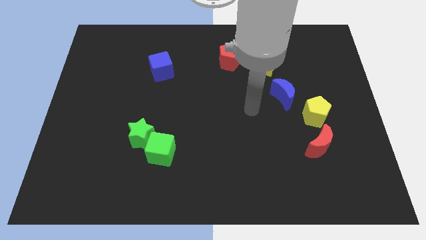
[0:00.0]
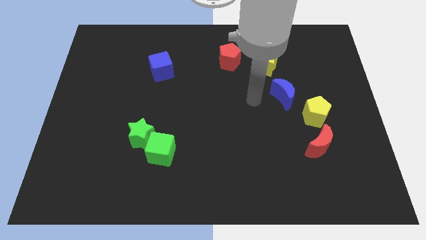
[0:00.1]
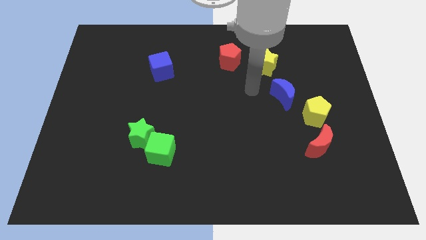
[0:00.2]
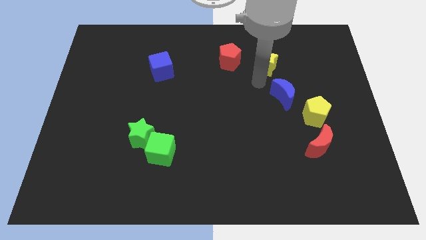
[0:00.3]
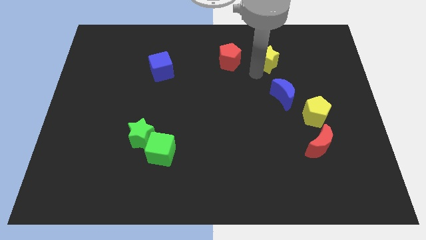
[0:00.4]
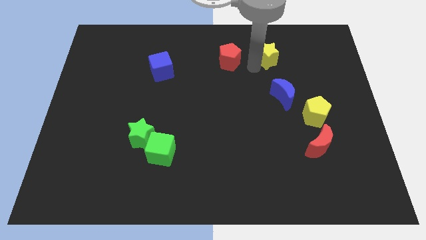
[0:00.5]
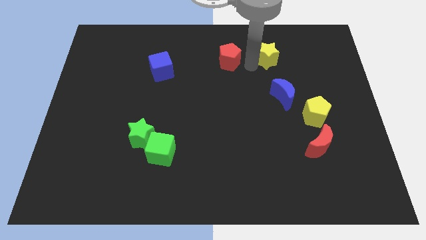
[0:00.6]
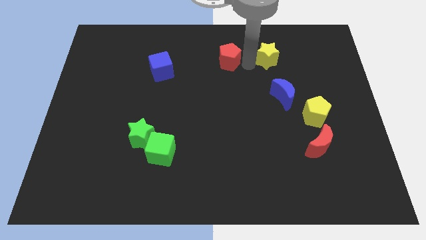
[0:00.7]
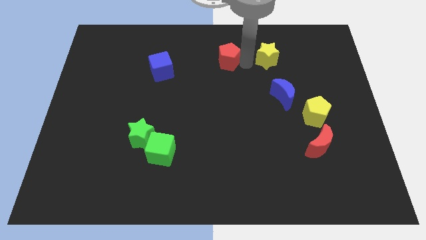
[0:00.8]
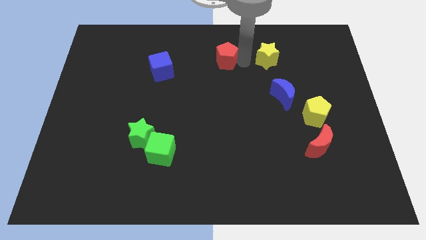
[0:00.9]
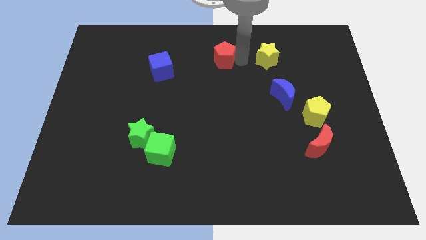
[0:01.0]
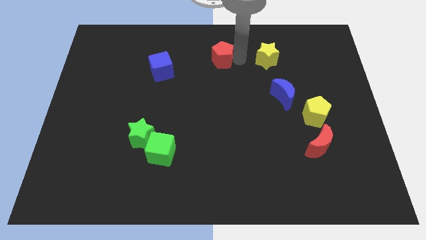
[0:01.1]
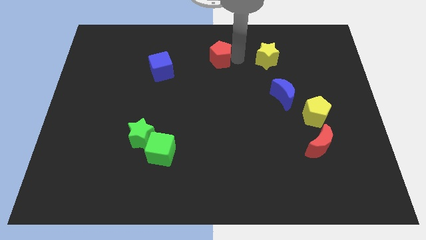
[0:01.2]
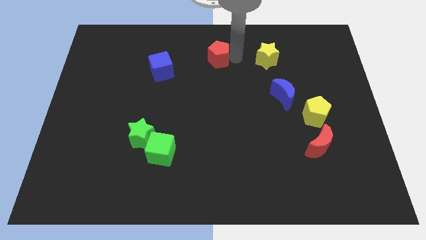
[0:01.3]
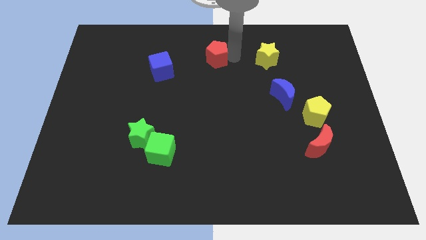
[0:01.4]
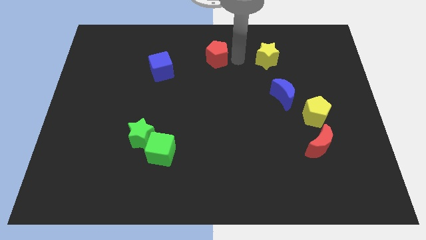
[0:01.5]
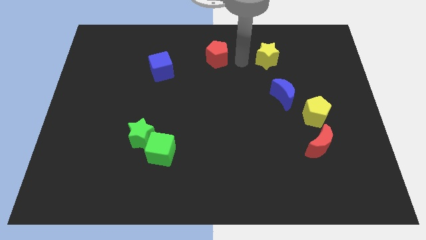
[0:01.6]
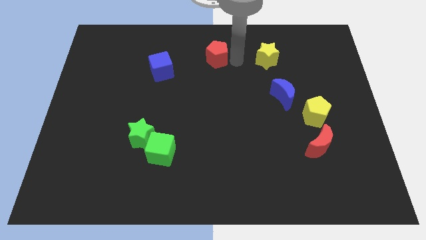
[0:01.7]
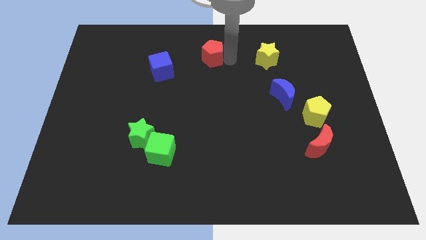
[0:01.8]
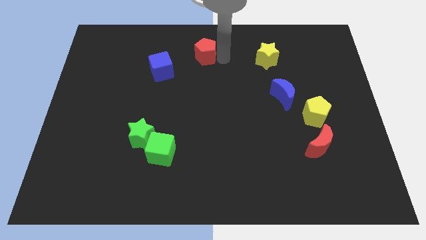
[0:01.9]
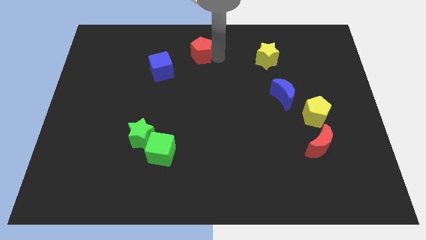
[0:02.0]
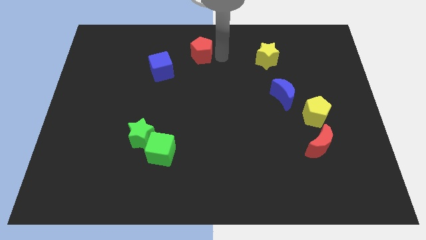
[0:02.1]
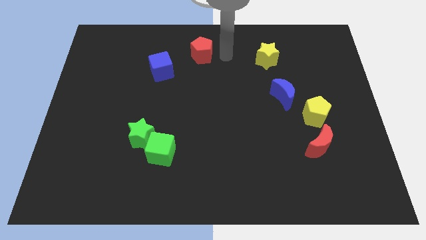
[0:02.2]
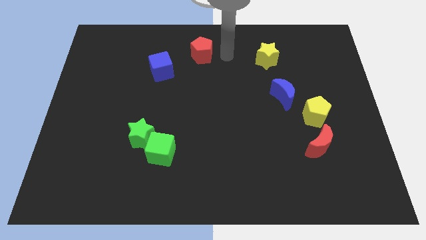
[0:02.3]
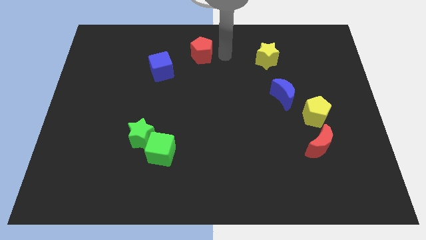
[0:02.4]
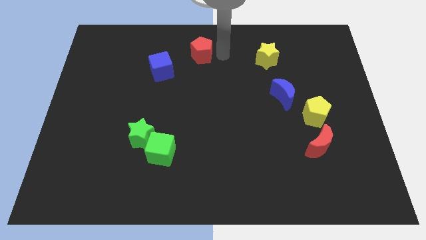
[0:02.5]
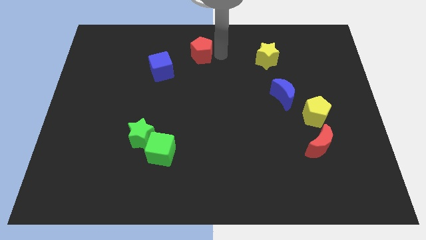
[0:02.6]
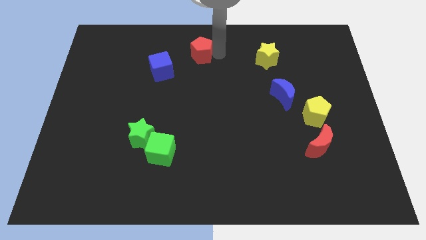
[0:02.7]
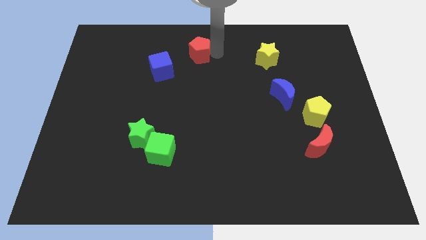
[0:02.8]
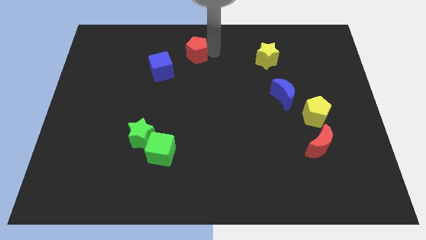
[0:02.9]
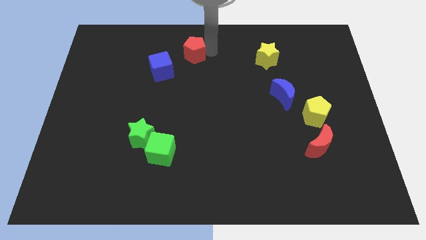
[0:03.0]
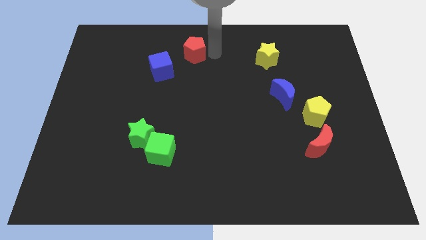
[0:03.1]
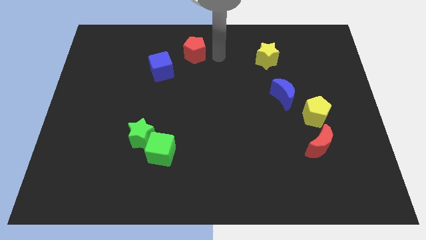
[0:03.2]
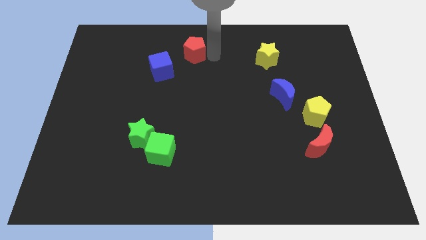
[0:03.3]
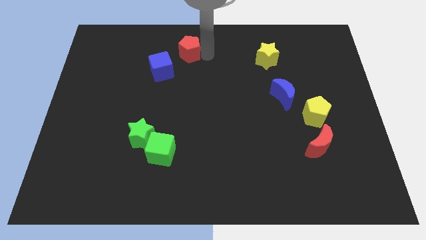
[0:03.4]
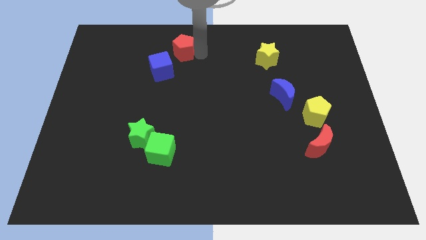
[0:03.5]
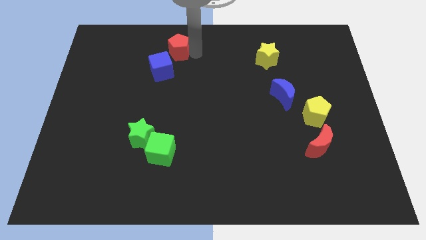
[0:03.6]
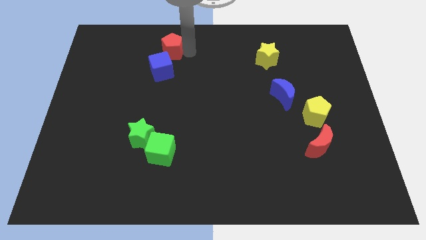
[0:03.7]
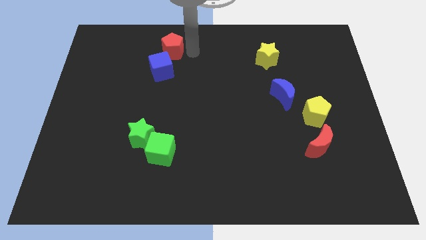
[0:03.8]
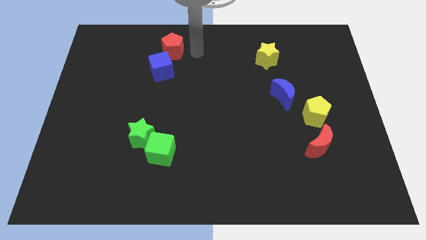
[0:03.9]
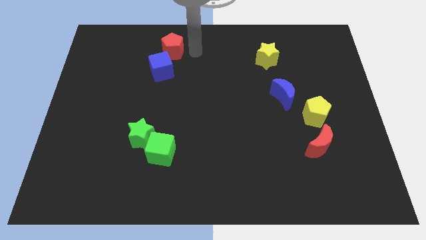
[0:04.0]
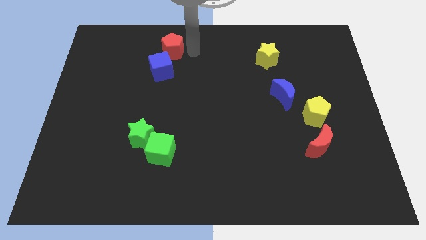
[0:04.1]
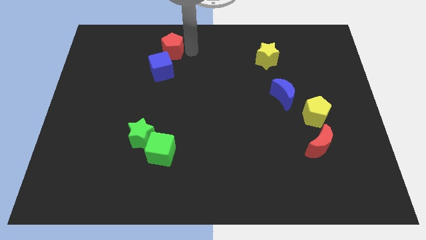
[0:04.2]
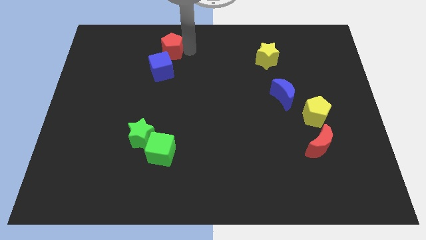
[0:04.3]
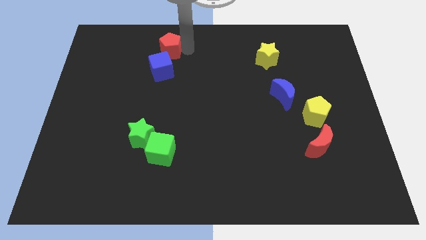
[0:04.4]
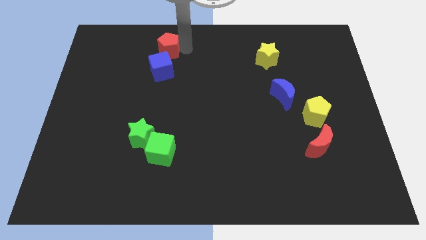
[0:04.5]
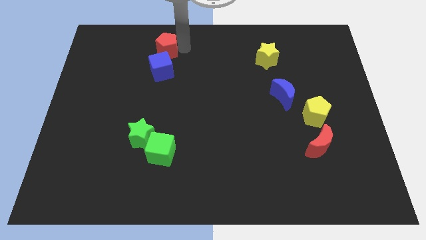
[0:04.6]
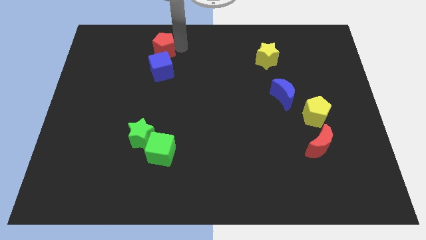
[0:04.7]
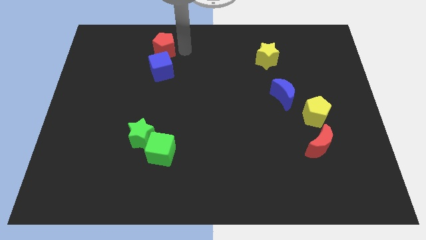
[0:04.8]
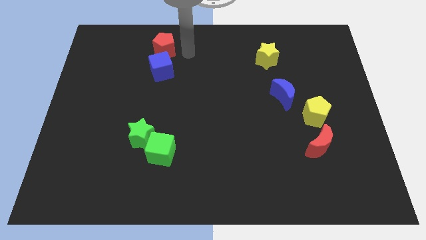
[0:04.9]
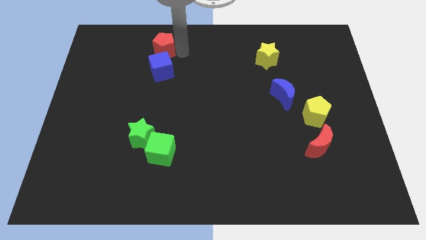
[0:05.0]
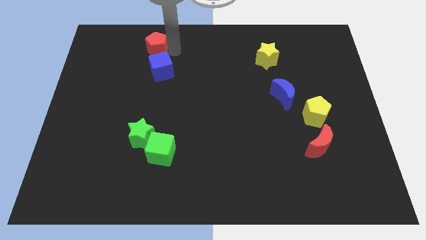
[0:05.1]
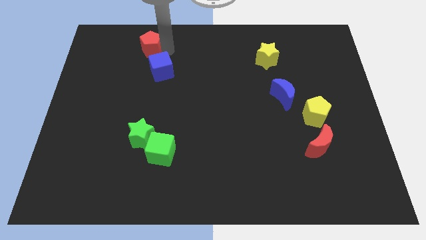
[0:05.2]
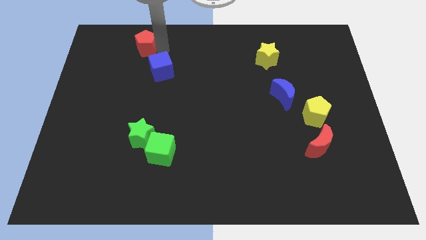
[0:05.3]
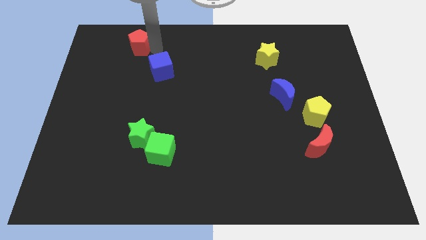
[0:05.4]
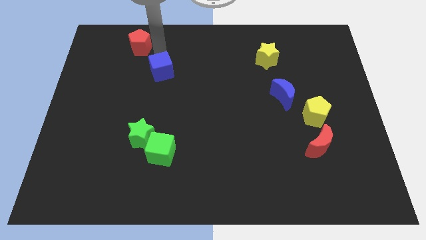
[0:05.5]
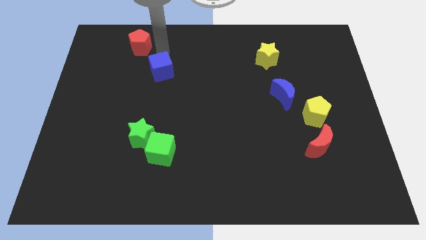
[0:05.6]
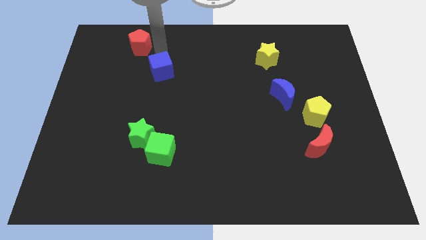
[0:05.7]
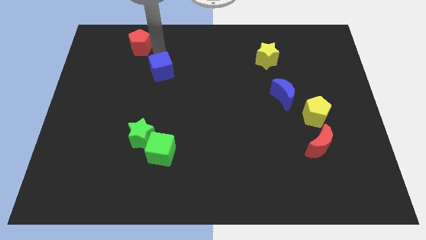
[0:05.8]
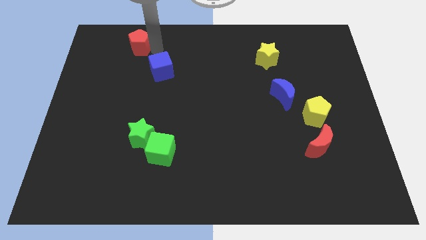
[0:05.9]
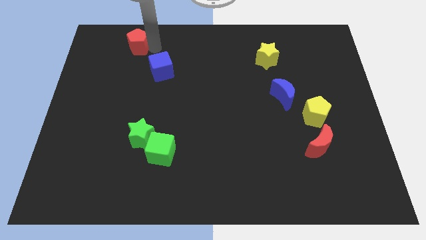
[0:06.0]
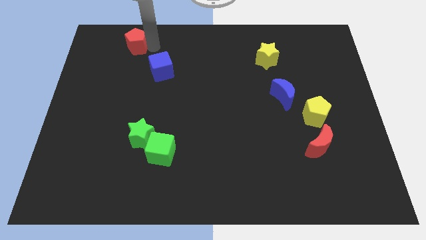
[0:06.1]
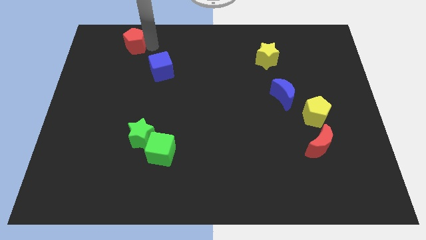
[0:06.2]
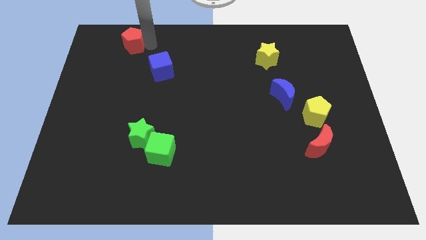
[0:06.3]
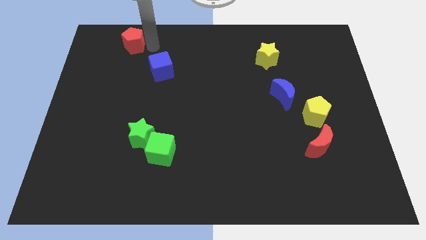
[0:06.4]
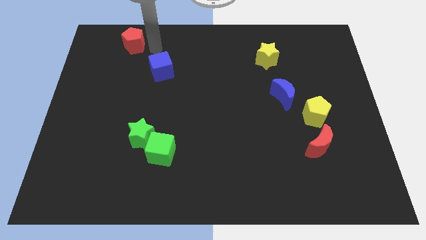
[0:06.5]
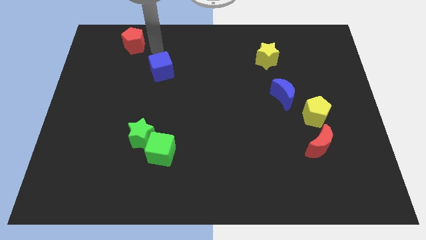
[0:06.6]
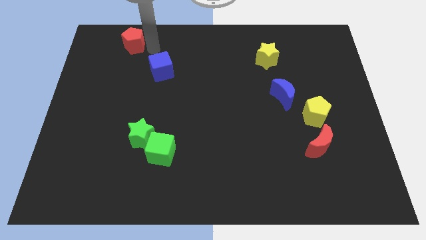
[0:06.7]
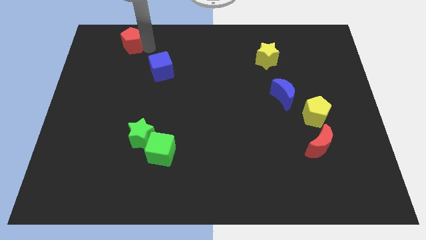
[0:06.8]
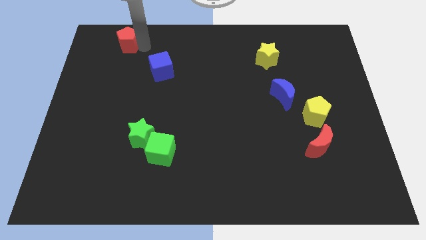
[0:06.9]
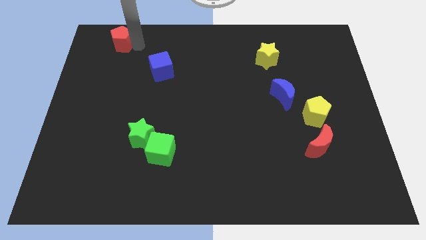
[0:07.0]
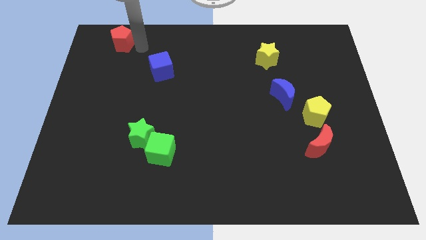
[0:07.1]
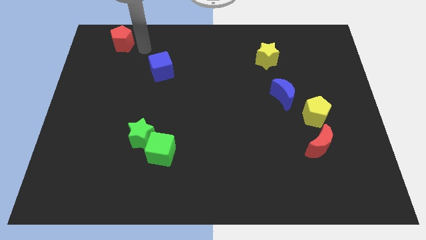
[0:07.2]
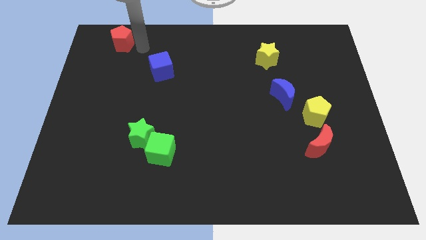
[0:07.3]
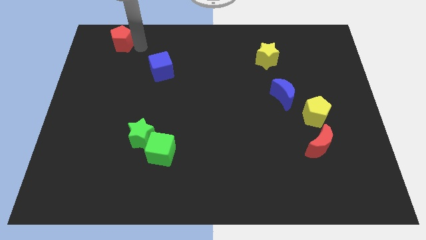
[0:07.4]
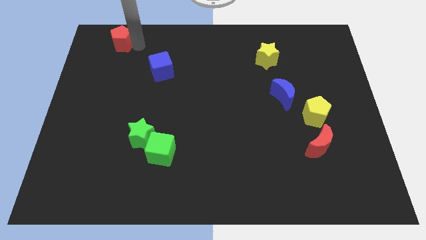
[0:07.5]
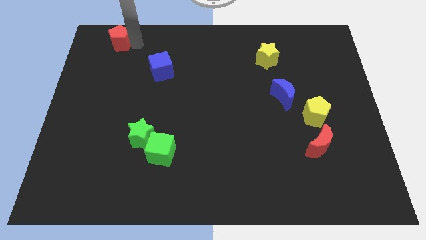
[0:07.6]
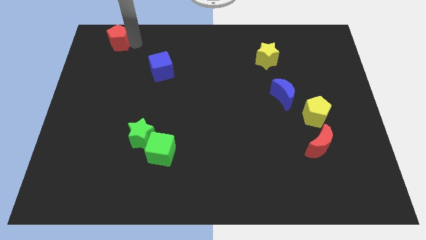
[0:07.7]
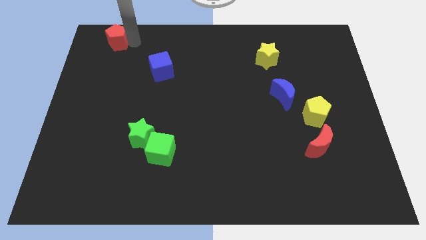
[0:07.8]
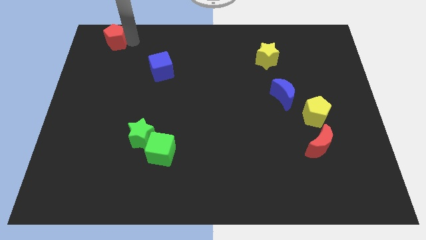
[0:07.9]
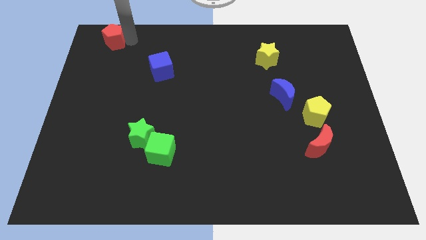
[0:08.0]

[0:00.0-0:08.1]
put the red pentagon to the top left
